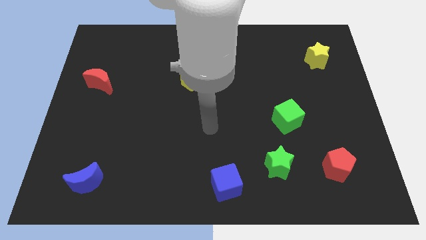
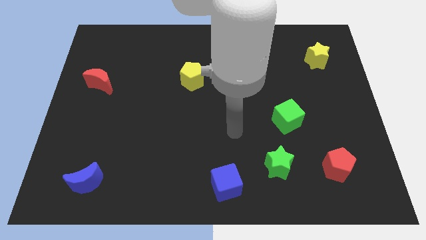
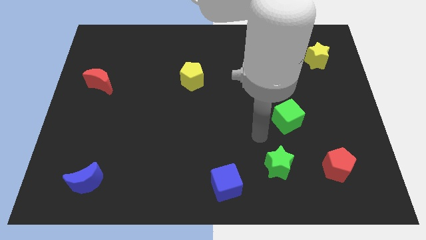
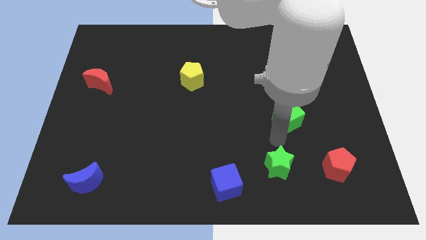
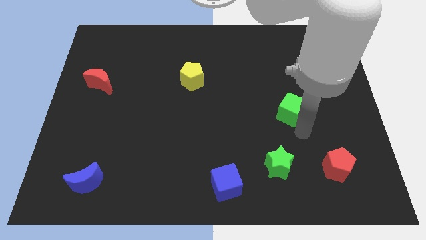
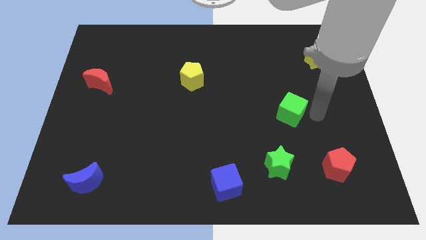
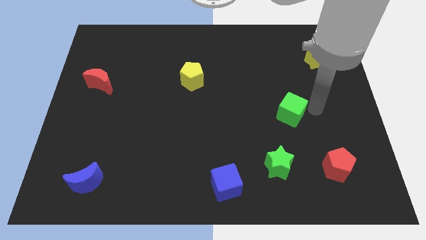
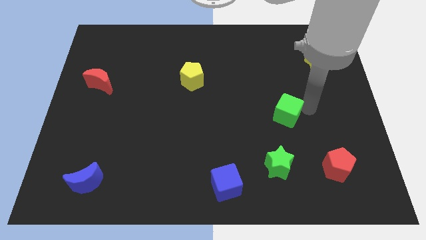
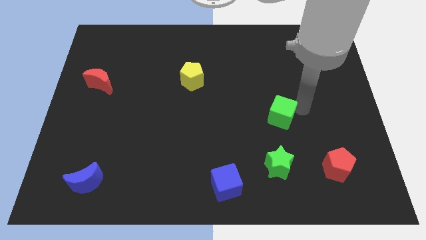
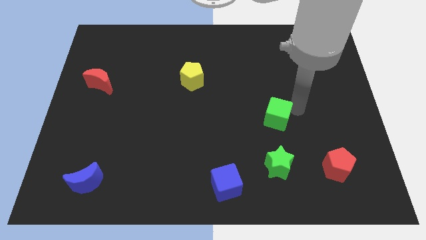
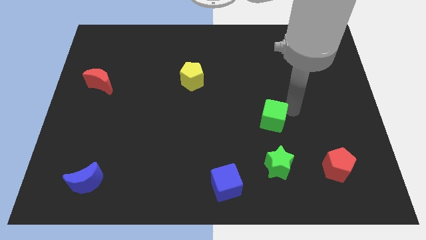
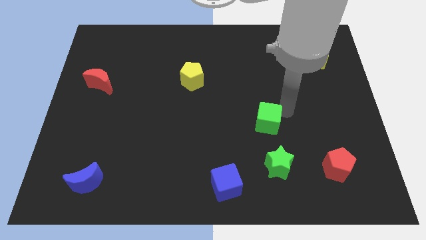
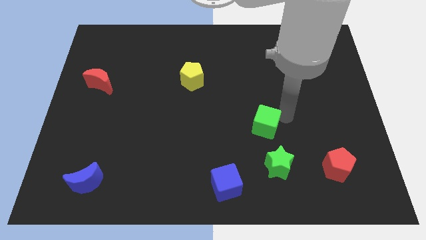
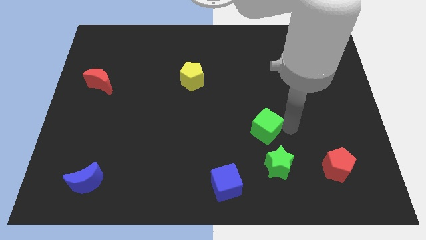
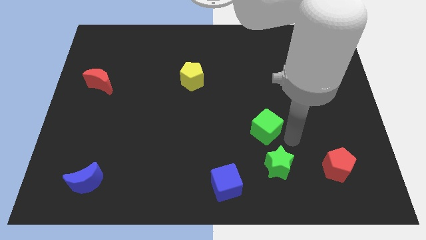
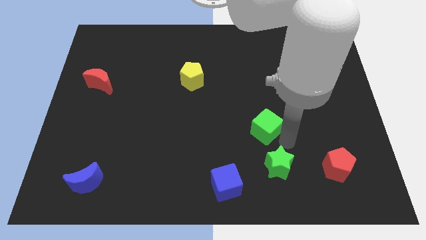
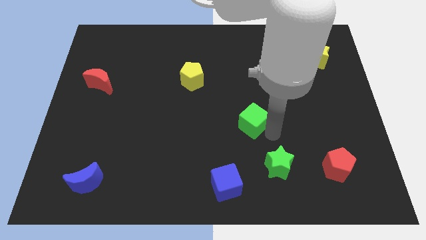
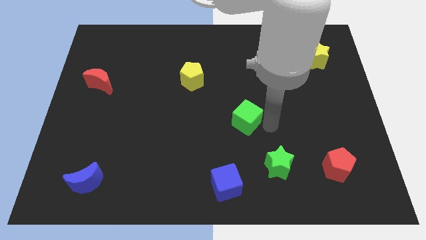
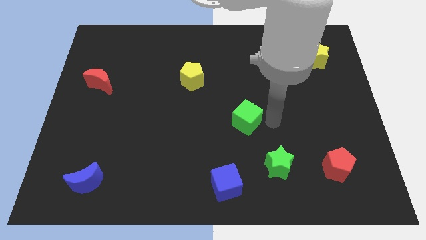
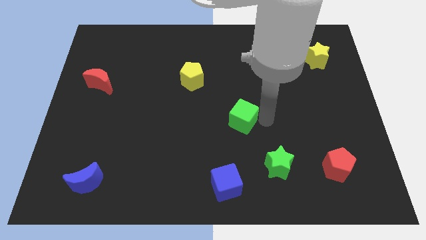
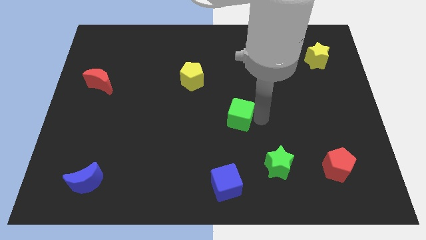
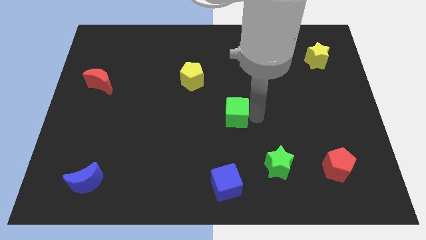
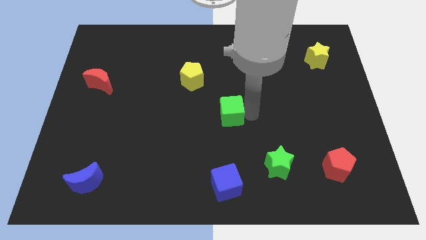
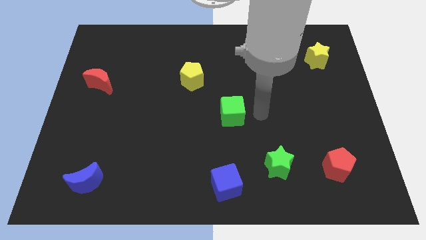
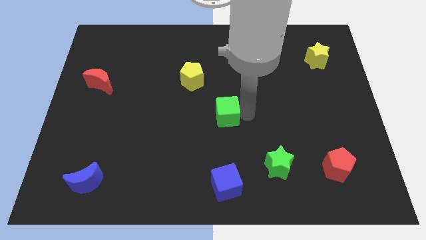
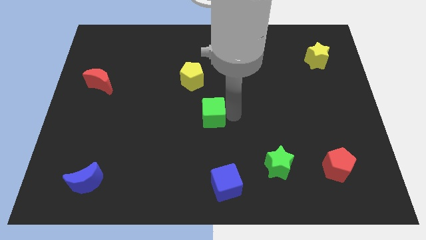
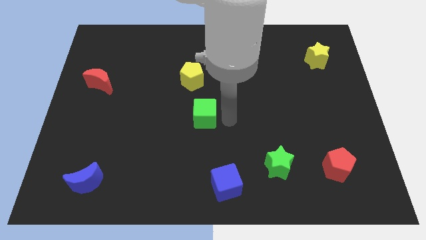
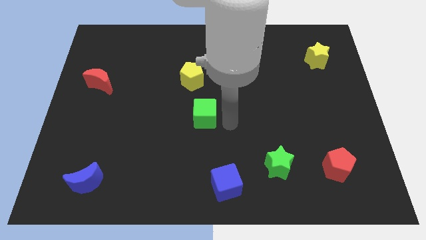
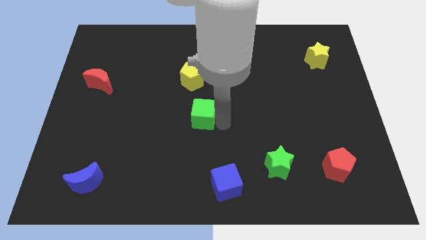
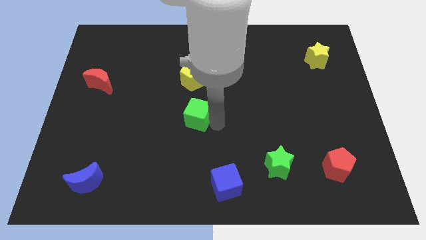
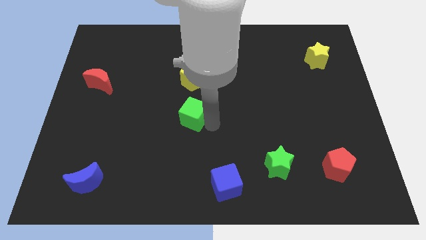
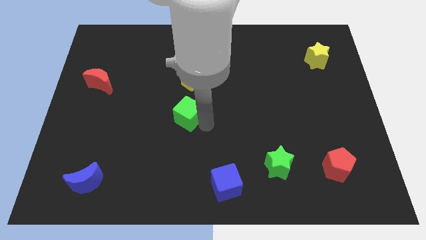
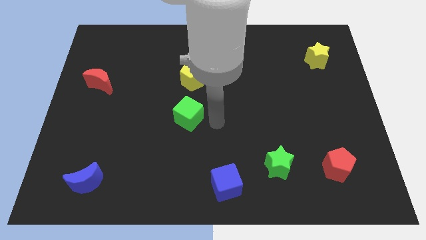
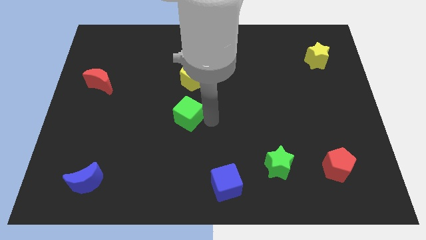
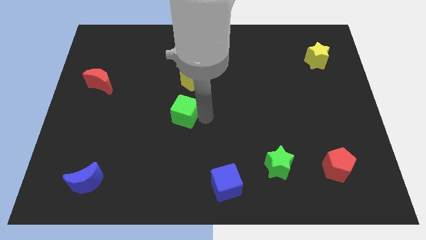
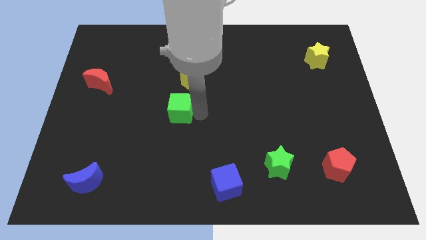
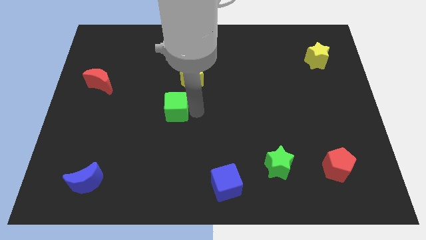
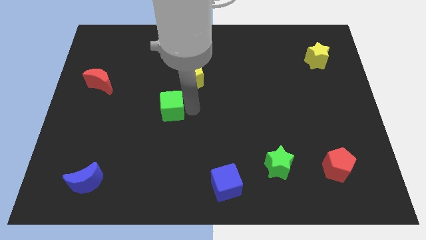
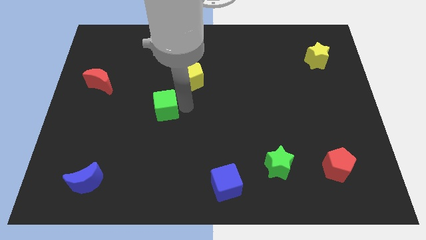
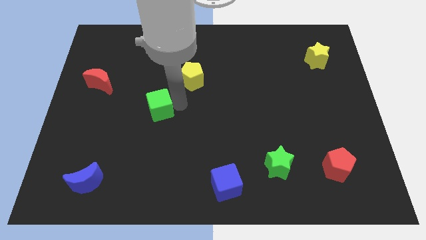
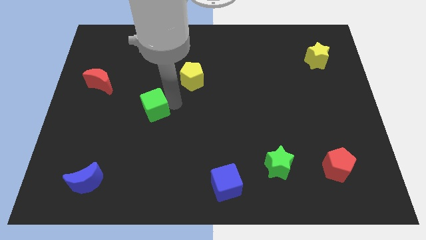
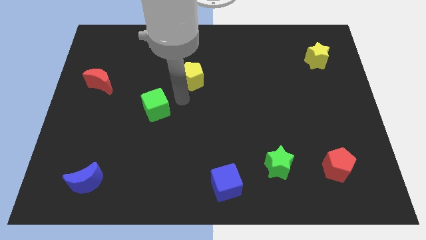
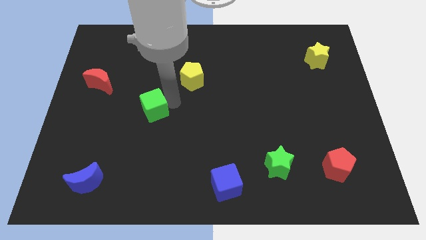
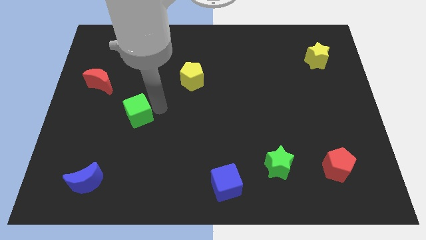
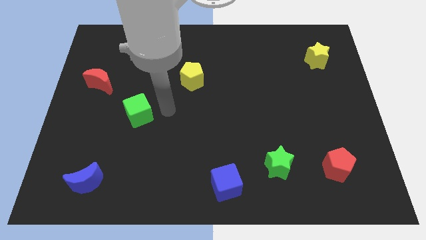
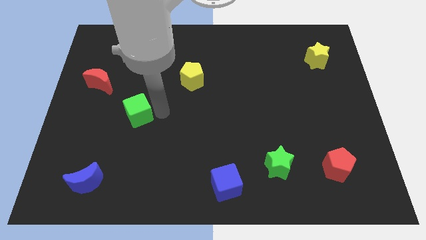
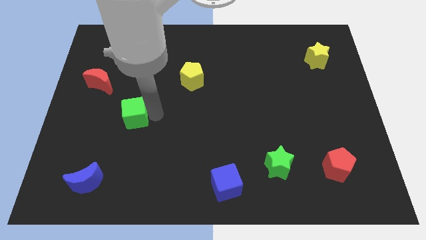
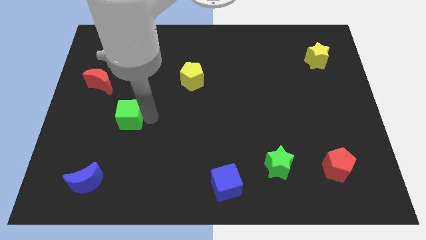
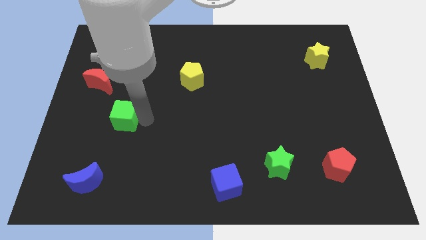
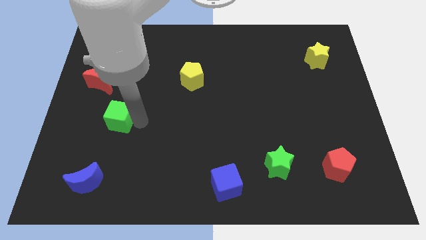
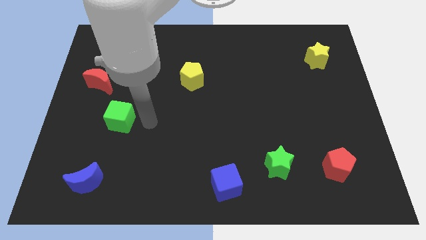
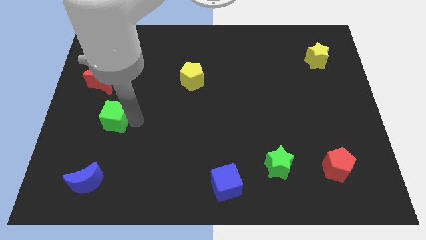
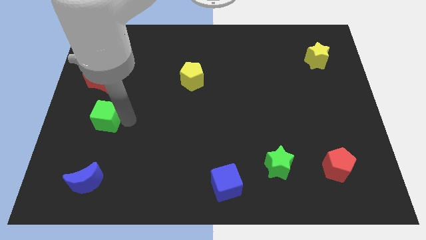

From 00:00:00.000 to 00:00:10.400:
push the green cube to the bottom side of the red moon

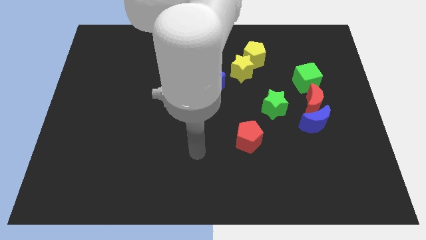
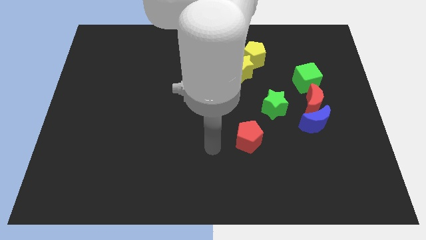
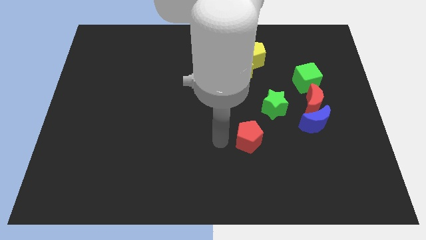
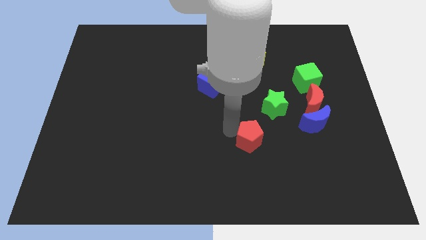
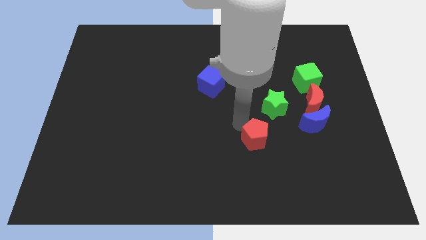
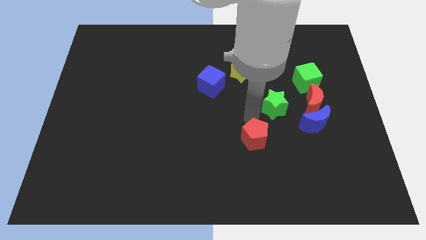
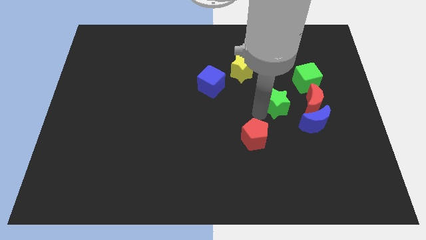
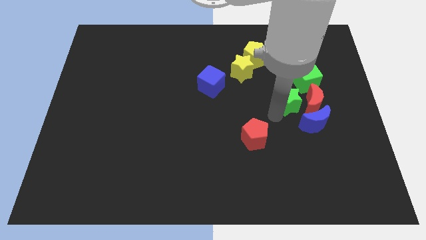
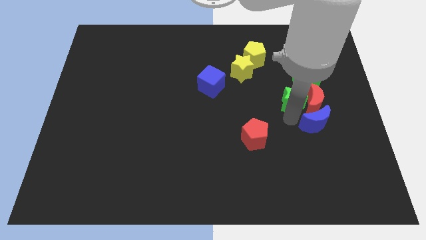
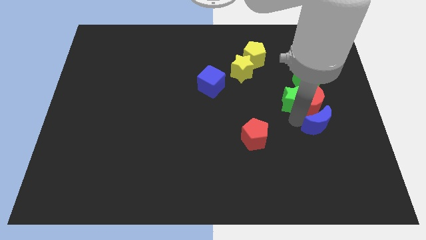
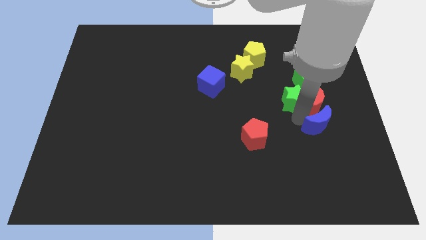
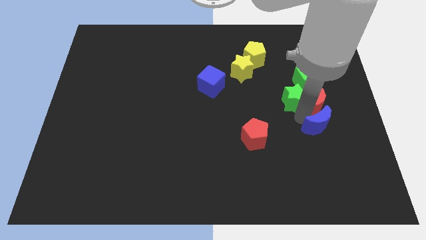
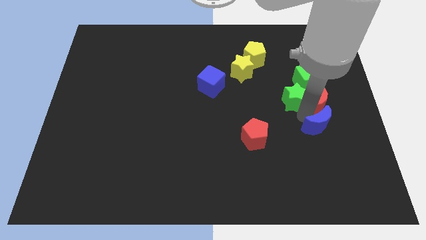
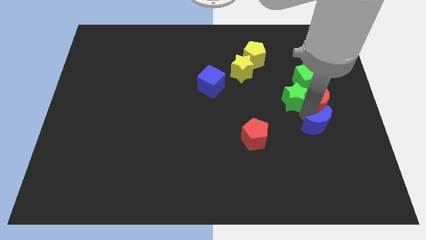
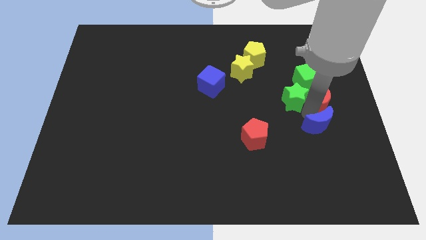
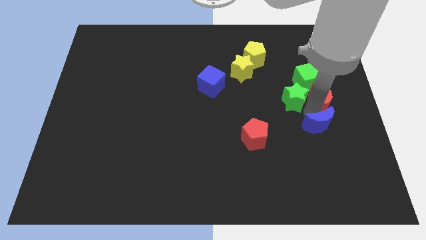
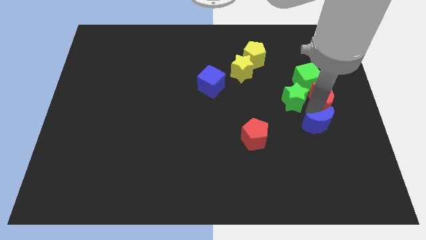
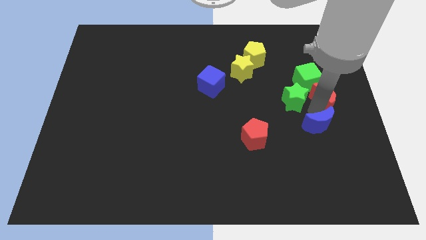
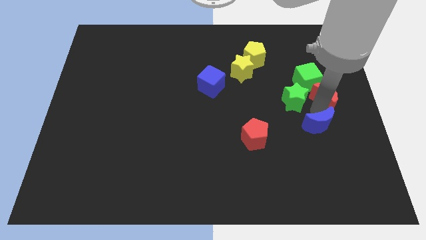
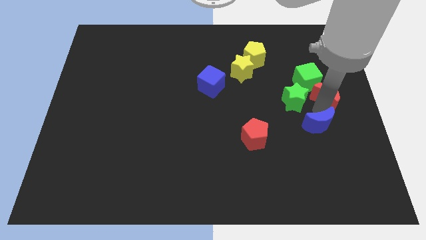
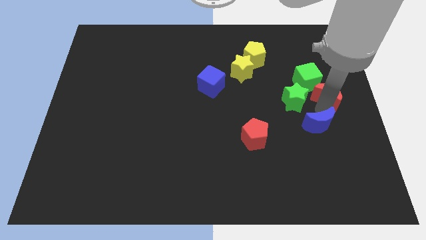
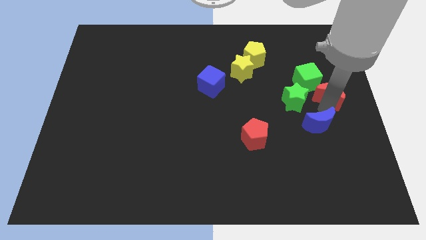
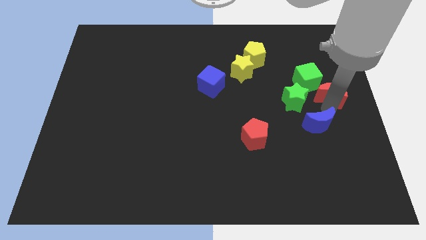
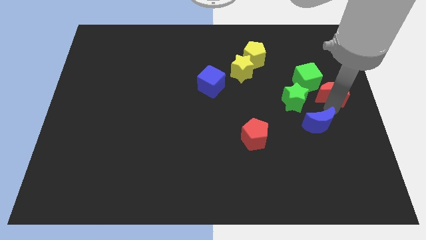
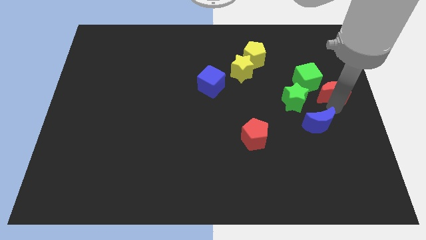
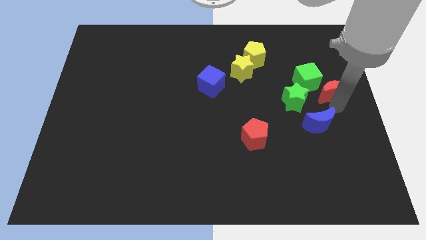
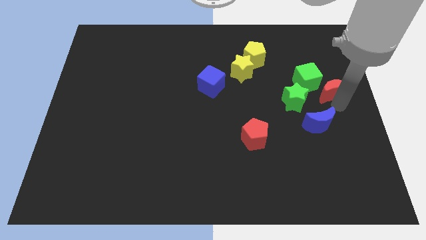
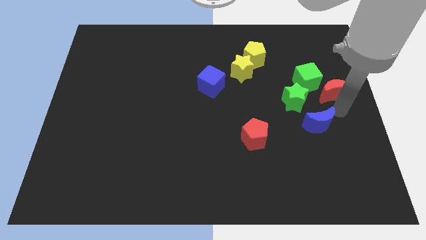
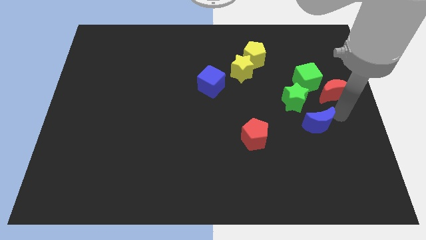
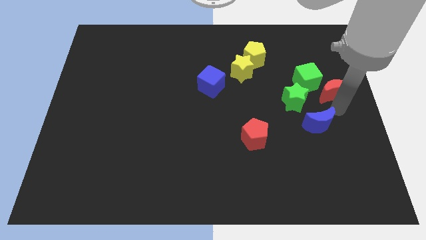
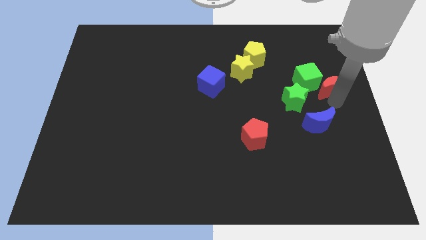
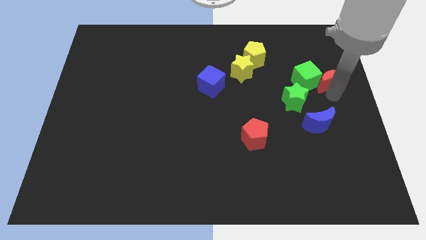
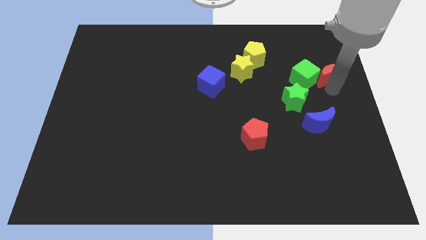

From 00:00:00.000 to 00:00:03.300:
slide the red moon to the top right of the green cube
